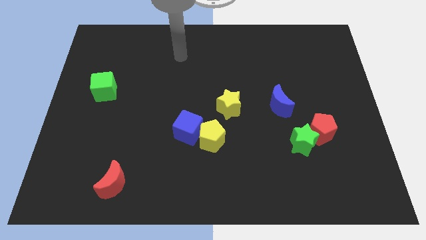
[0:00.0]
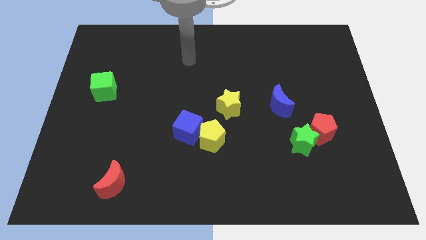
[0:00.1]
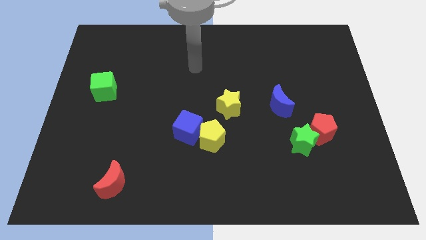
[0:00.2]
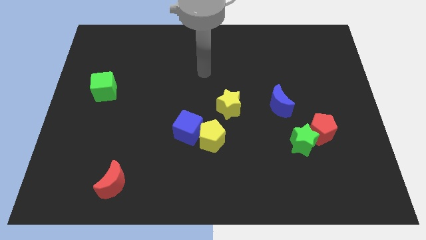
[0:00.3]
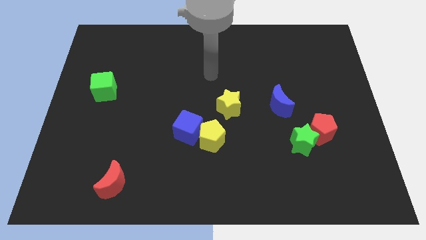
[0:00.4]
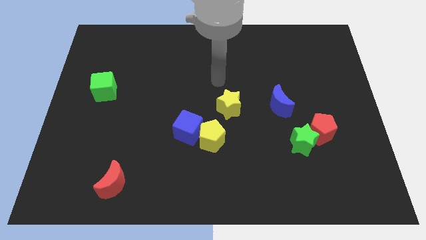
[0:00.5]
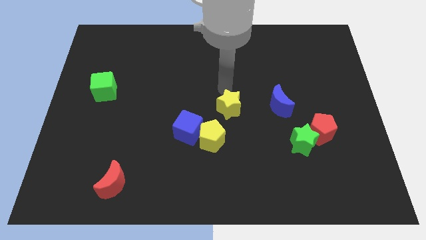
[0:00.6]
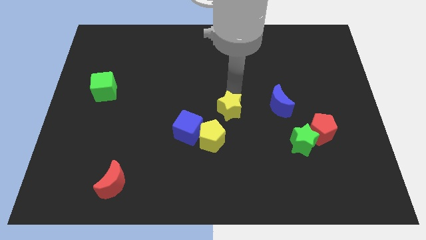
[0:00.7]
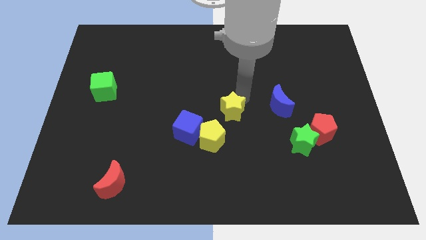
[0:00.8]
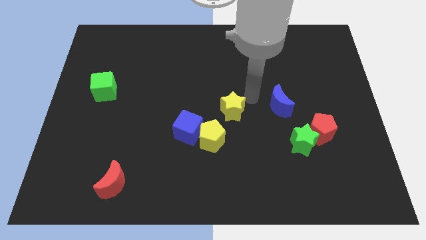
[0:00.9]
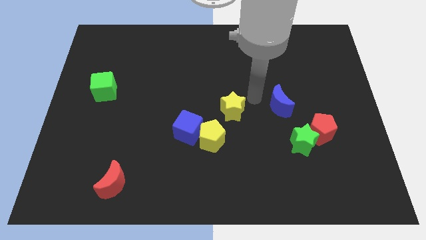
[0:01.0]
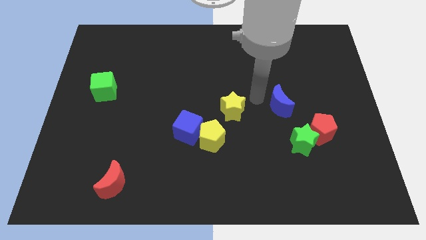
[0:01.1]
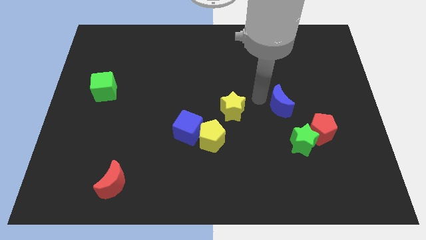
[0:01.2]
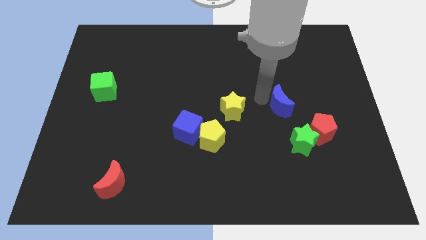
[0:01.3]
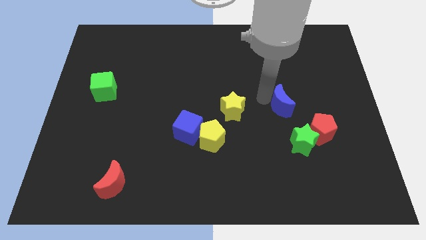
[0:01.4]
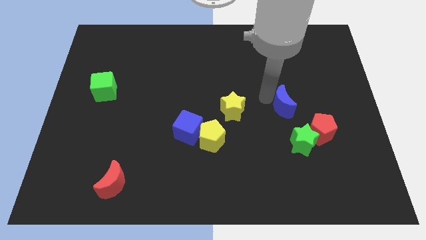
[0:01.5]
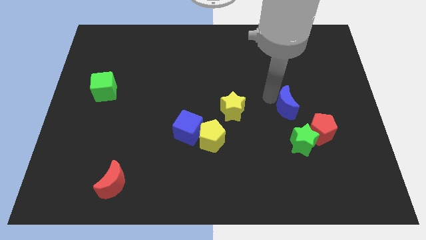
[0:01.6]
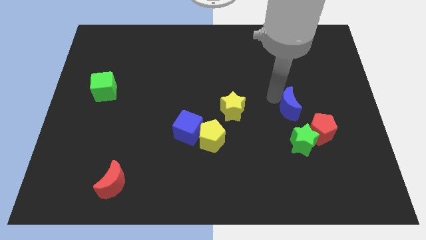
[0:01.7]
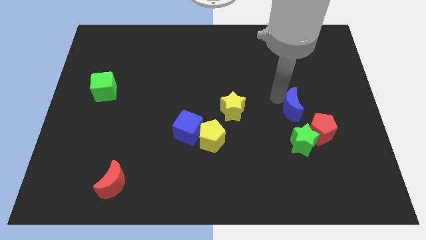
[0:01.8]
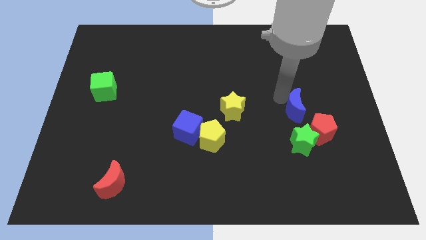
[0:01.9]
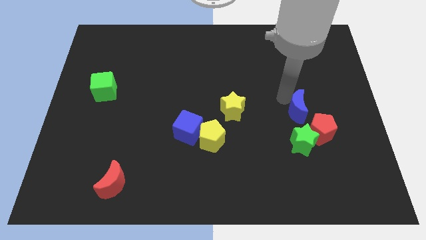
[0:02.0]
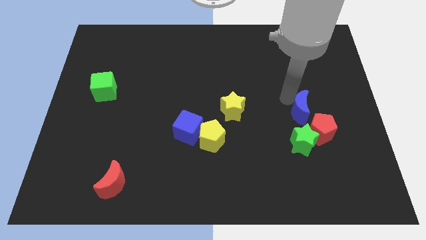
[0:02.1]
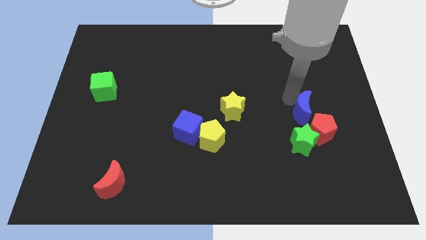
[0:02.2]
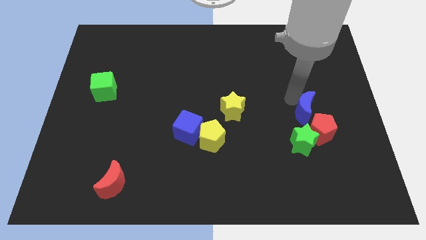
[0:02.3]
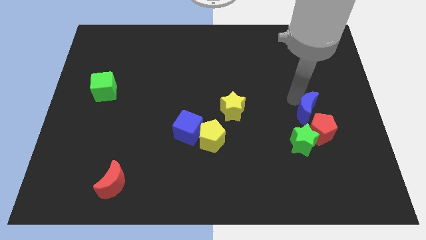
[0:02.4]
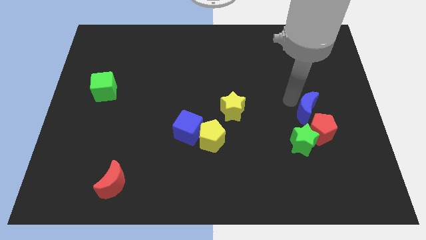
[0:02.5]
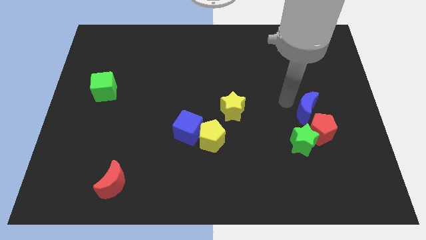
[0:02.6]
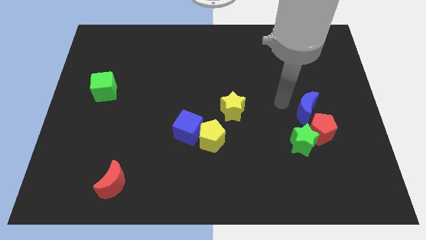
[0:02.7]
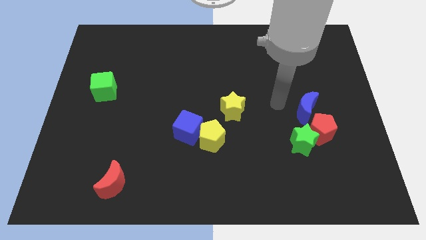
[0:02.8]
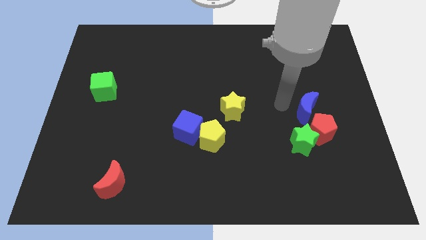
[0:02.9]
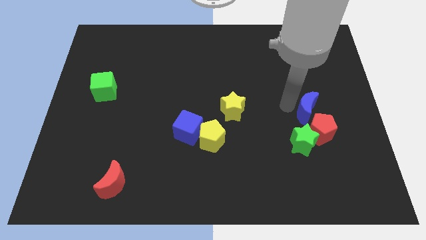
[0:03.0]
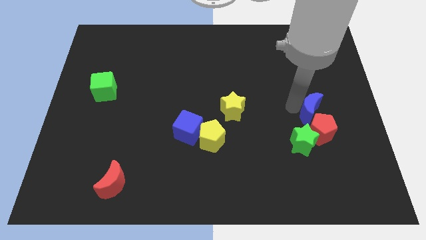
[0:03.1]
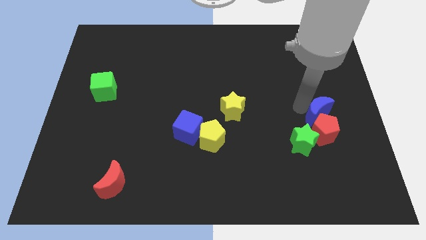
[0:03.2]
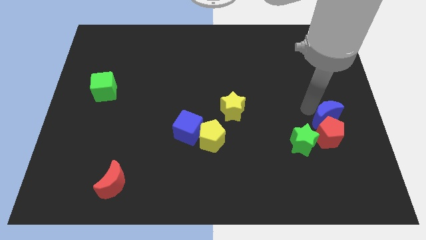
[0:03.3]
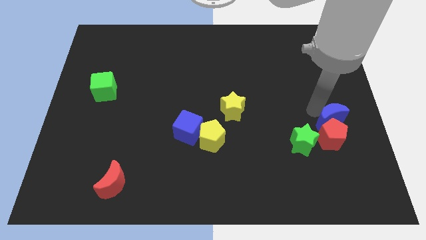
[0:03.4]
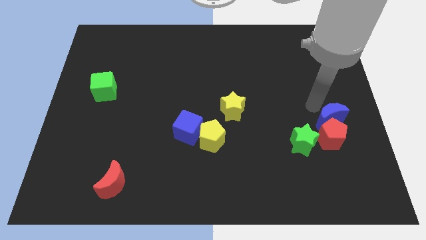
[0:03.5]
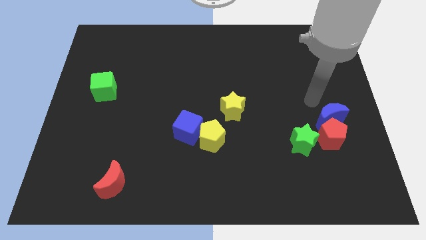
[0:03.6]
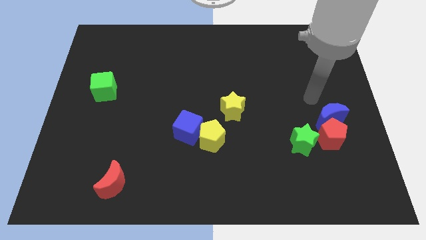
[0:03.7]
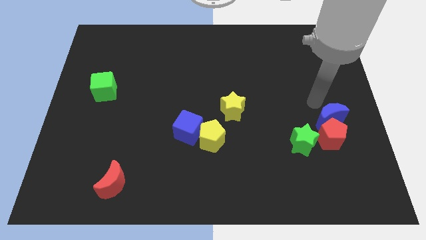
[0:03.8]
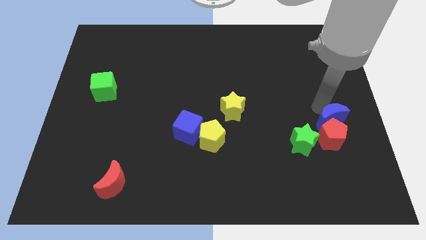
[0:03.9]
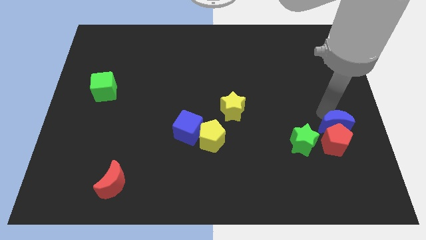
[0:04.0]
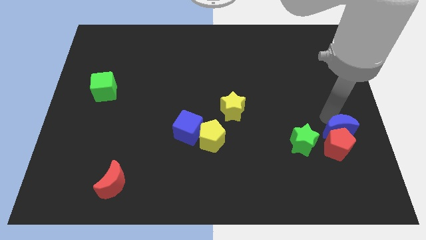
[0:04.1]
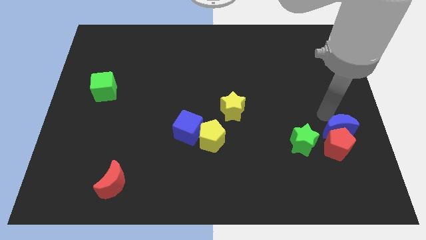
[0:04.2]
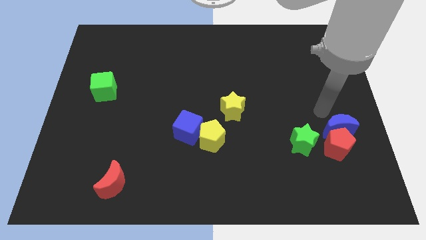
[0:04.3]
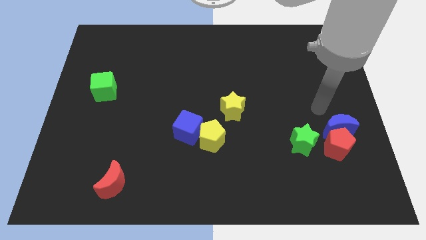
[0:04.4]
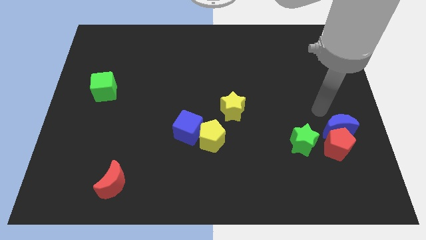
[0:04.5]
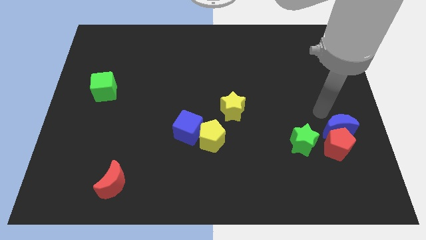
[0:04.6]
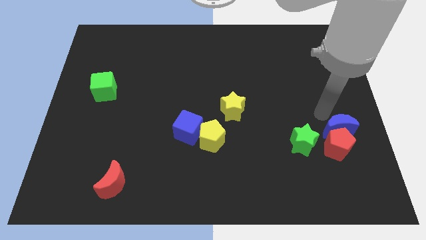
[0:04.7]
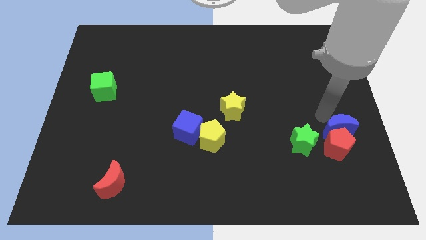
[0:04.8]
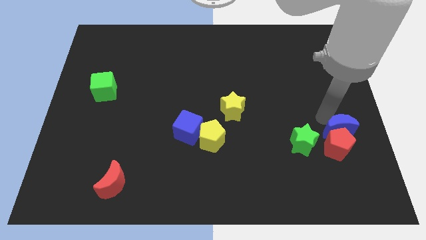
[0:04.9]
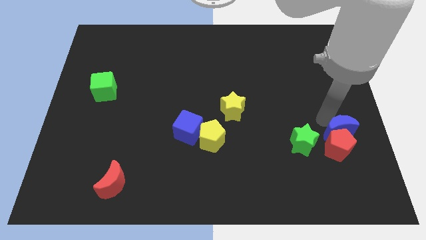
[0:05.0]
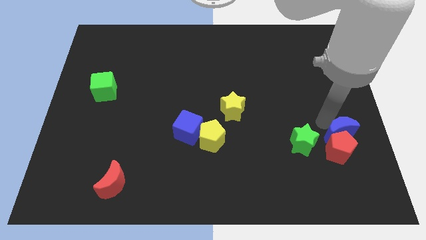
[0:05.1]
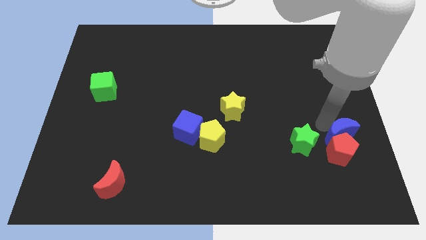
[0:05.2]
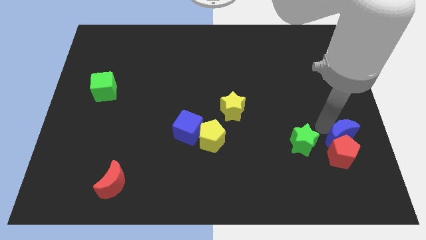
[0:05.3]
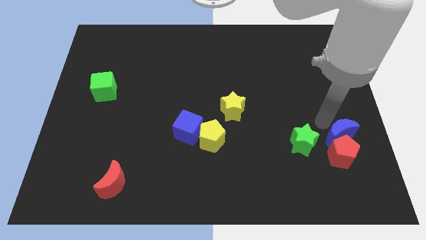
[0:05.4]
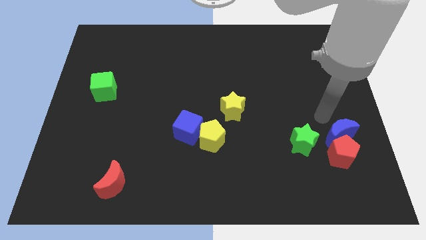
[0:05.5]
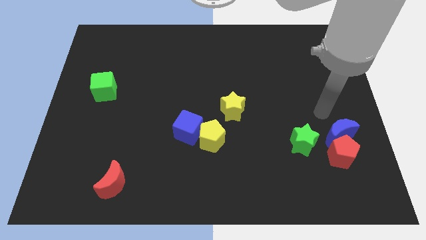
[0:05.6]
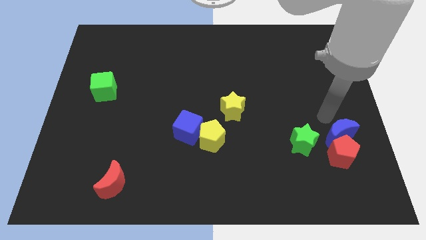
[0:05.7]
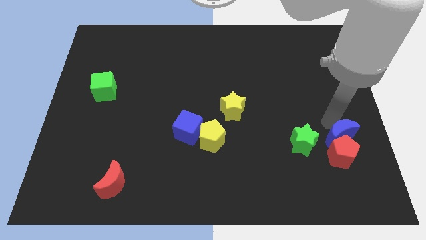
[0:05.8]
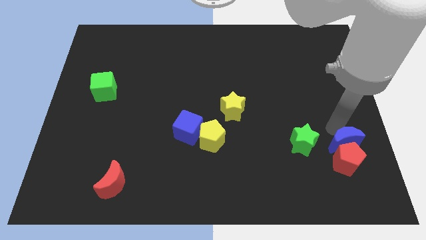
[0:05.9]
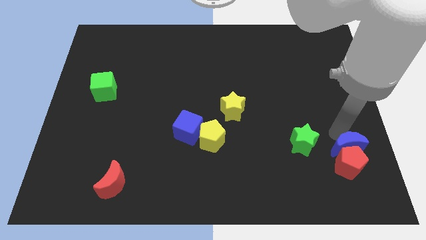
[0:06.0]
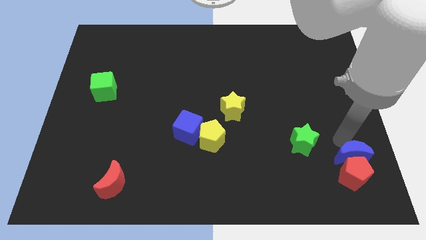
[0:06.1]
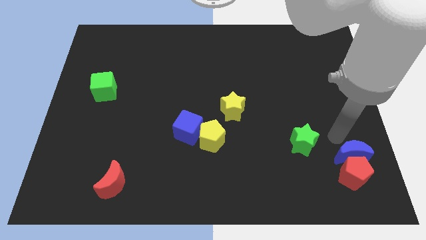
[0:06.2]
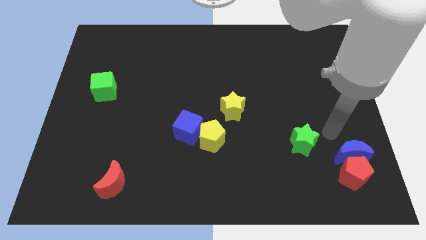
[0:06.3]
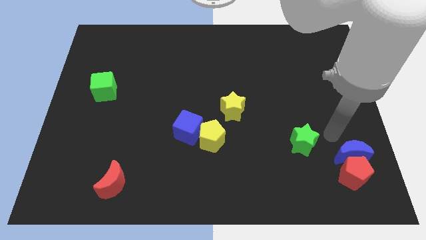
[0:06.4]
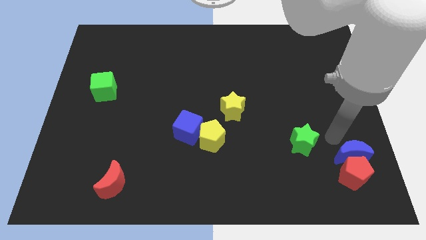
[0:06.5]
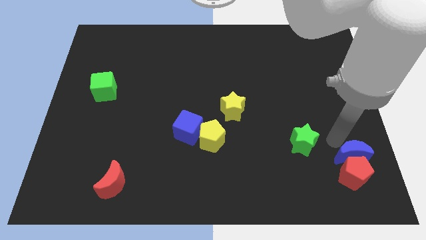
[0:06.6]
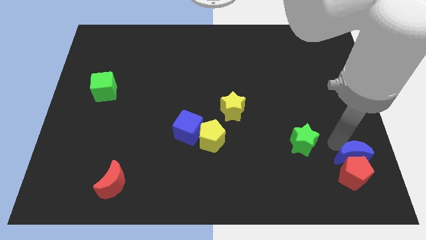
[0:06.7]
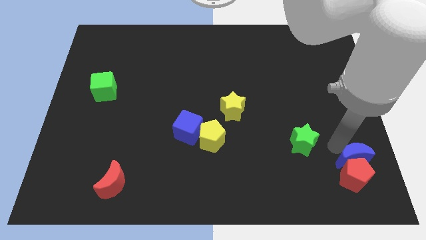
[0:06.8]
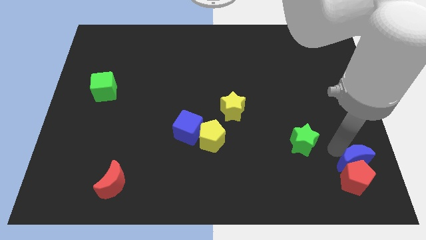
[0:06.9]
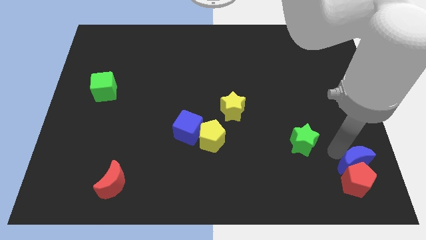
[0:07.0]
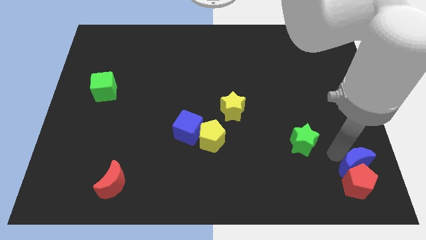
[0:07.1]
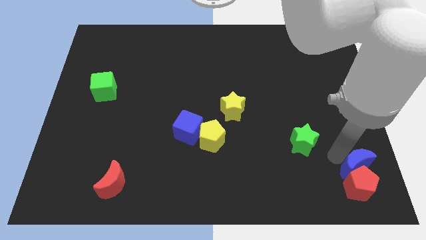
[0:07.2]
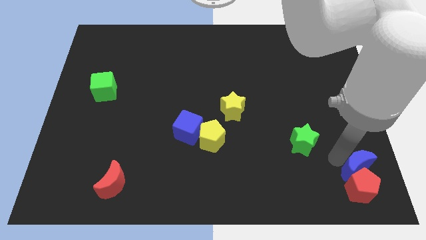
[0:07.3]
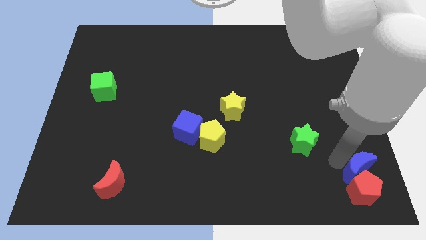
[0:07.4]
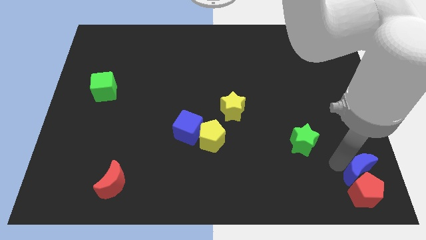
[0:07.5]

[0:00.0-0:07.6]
slide the blue moon to the bottom right corner
